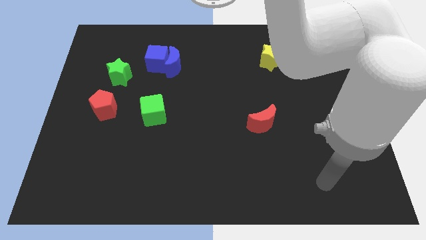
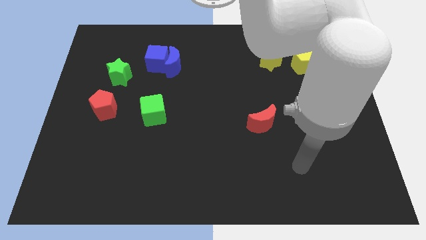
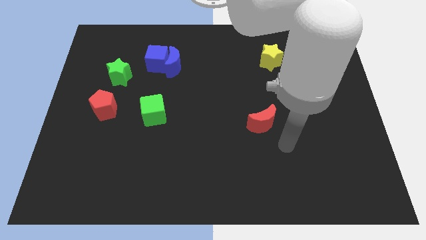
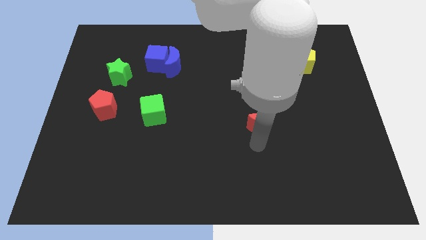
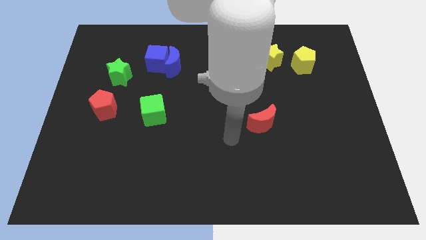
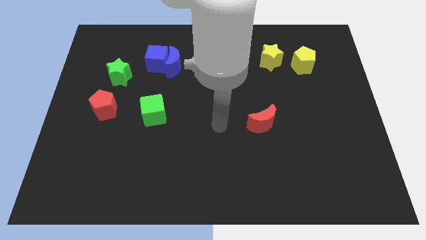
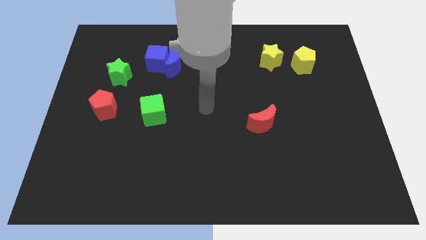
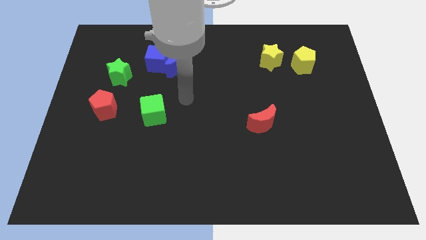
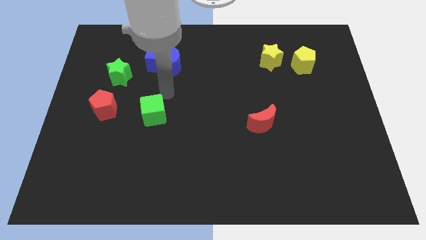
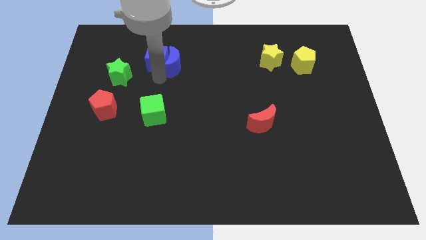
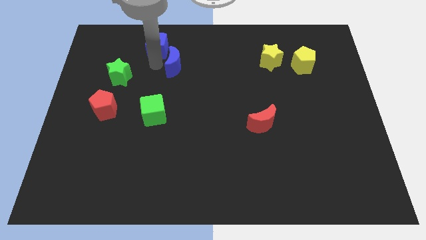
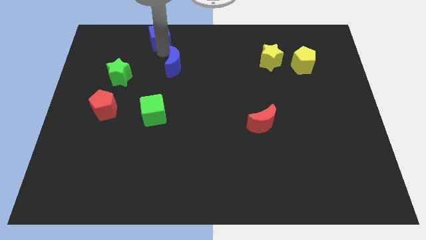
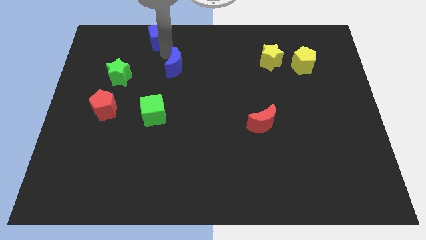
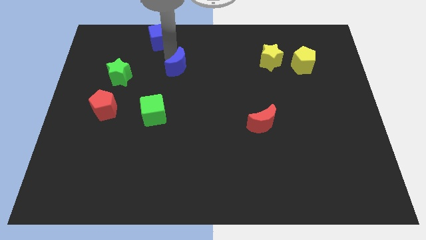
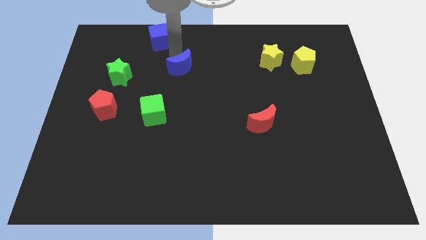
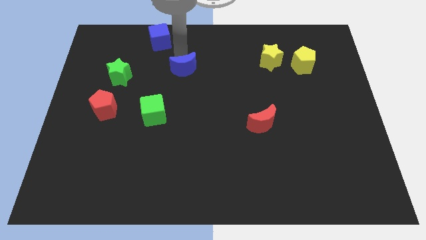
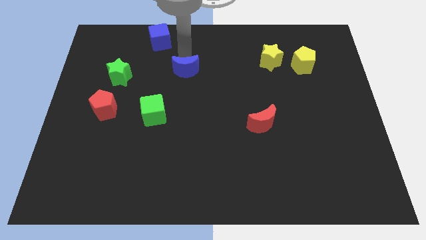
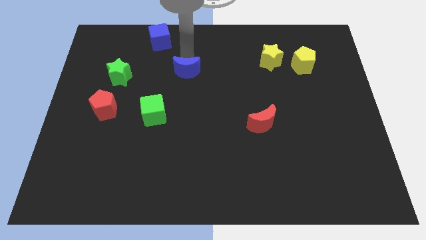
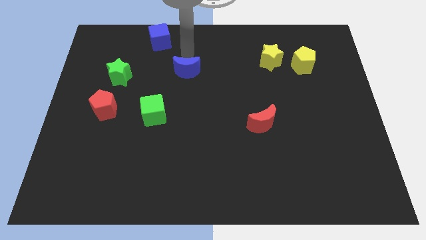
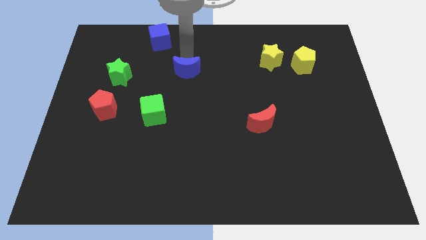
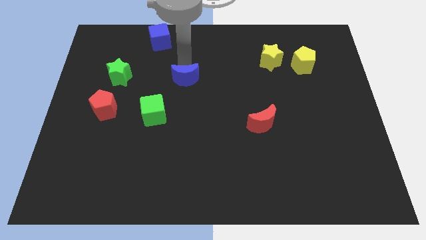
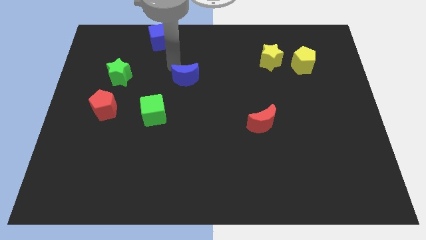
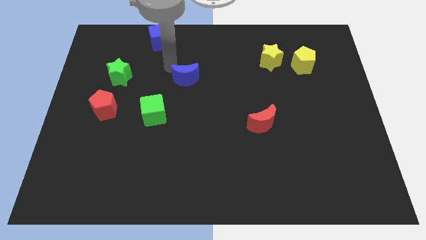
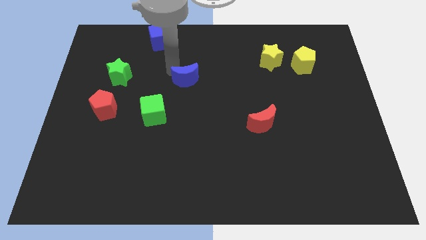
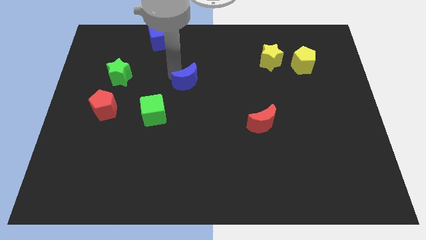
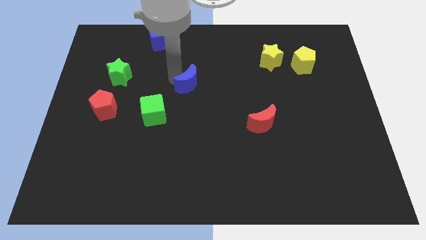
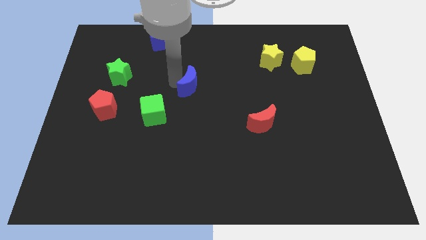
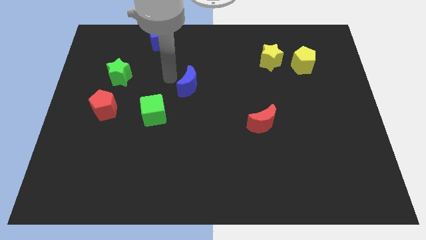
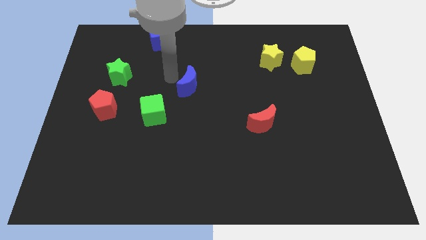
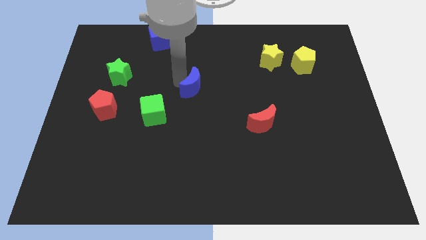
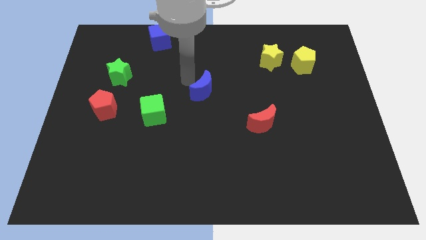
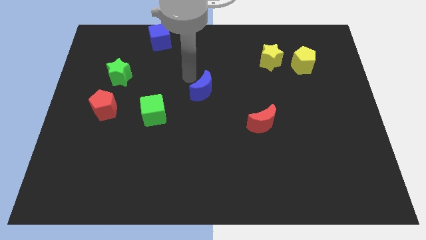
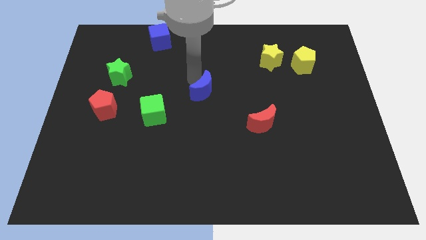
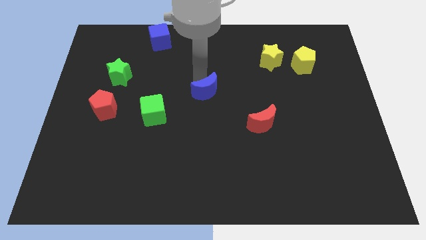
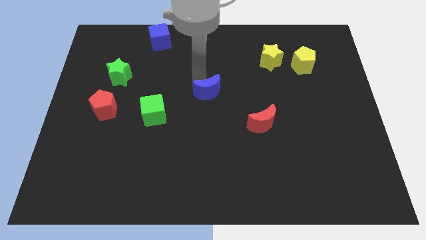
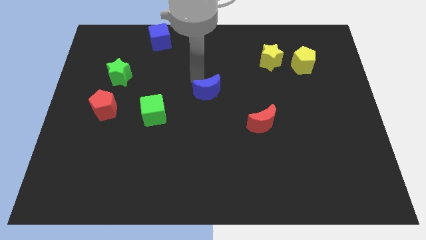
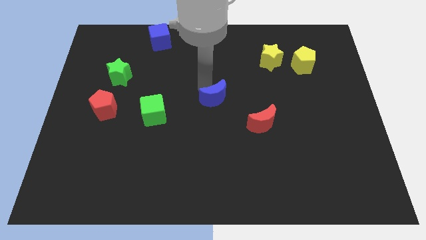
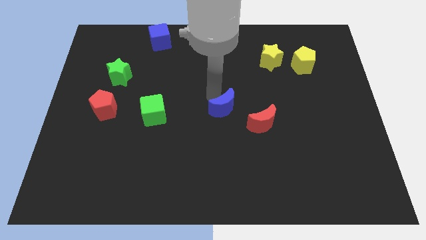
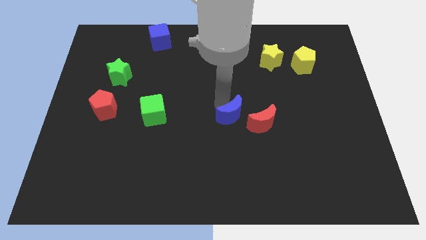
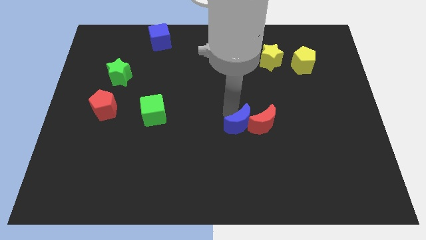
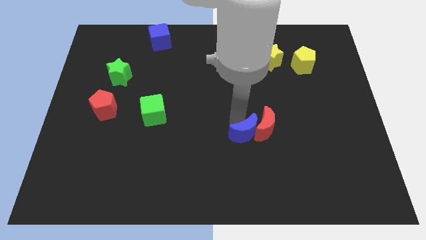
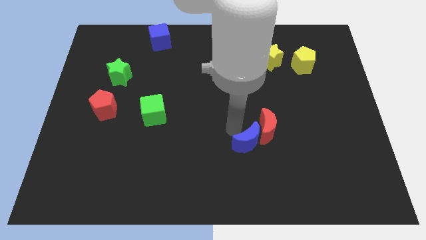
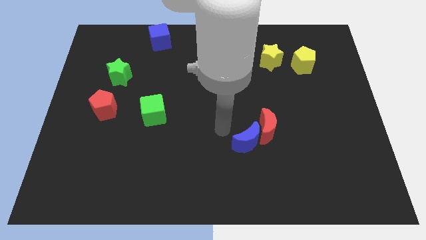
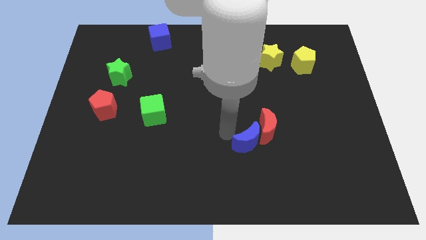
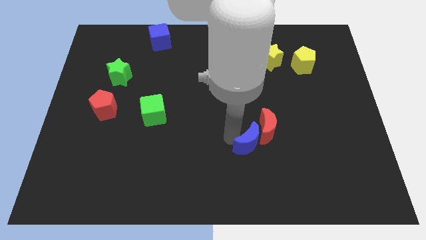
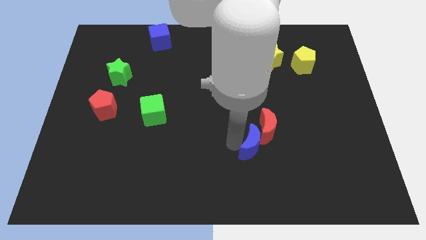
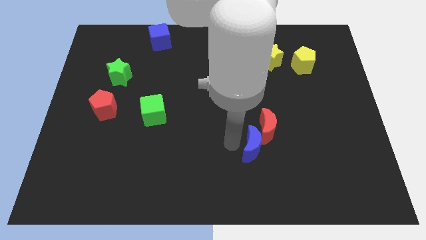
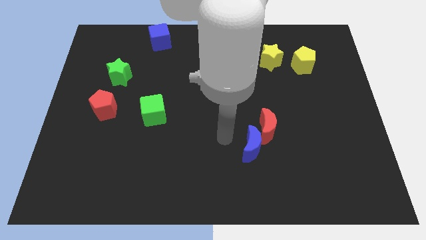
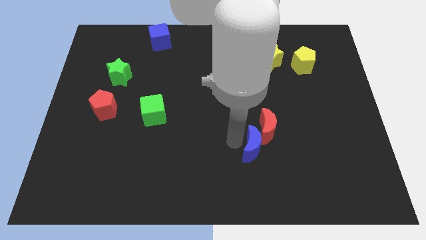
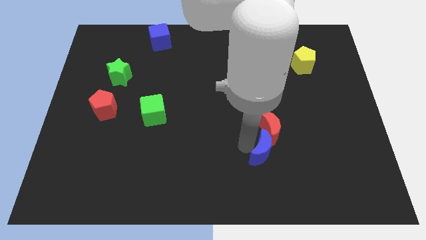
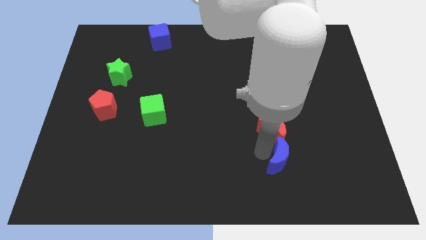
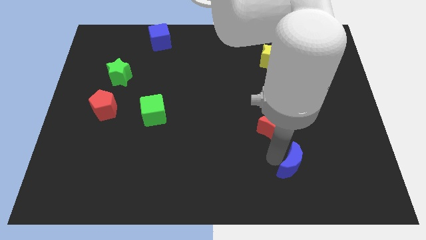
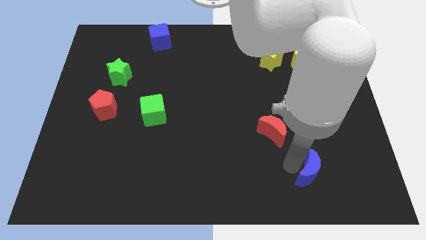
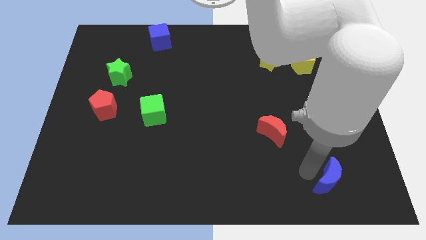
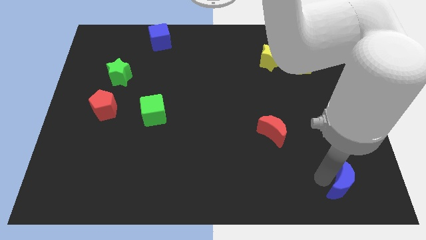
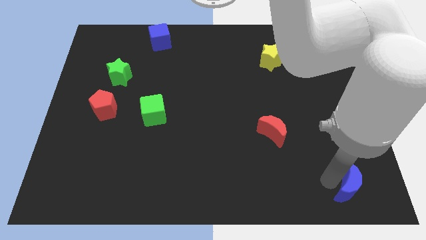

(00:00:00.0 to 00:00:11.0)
slide the blue moon to the lower right corner

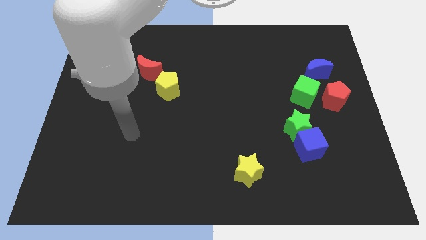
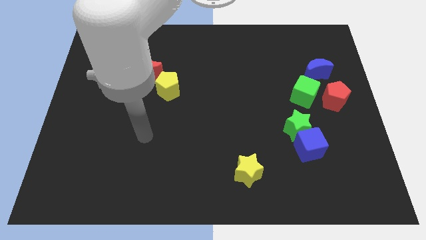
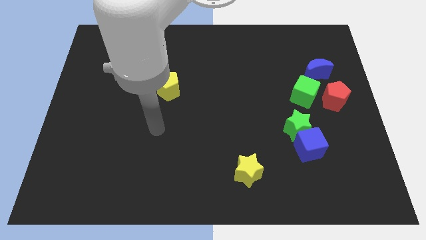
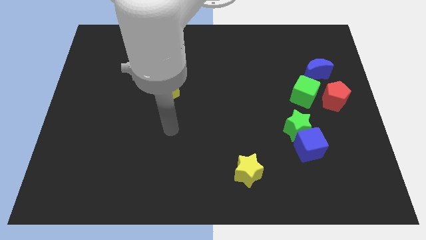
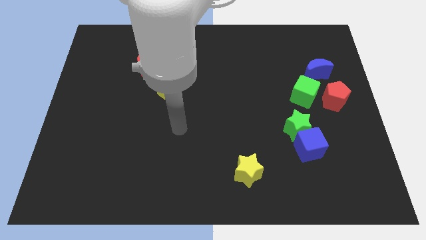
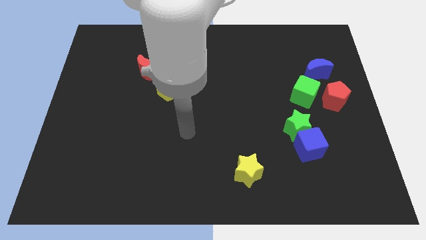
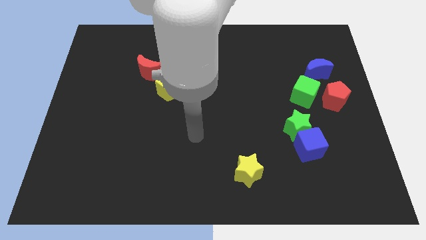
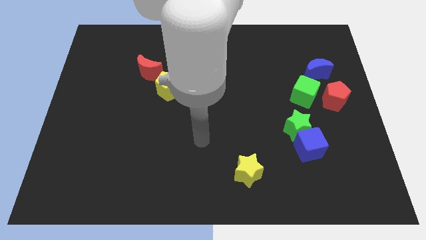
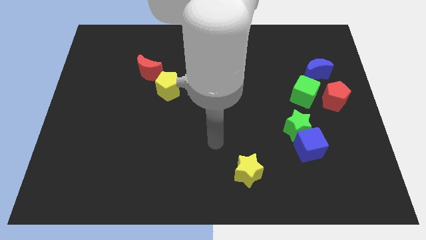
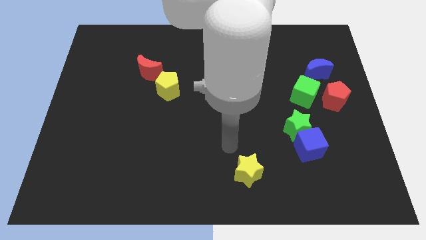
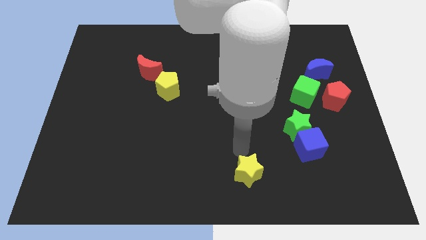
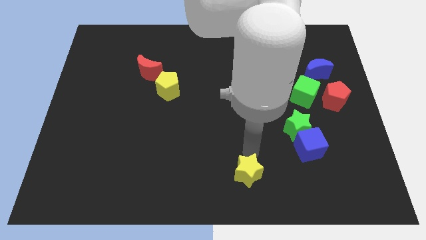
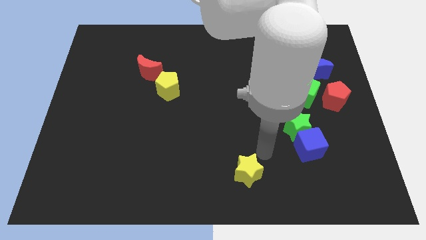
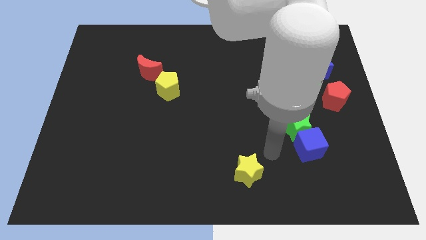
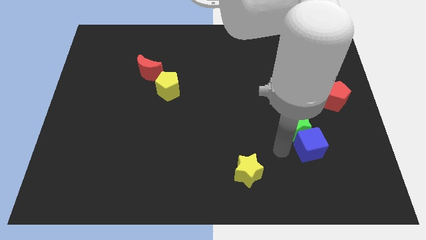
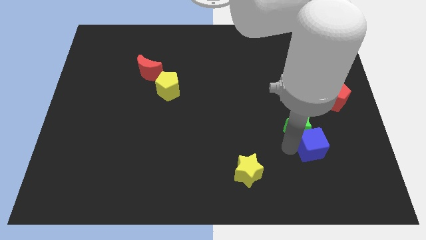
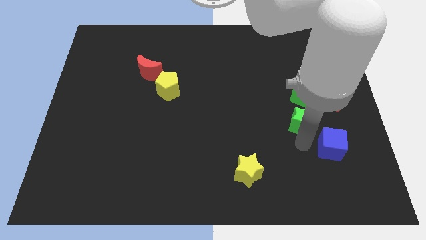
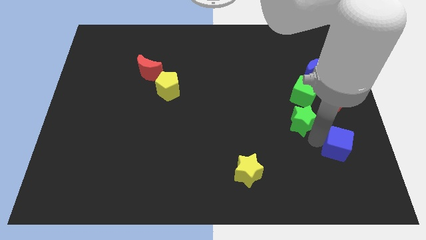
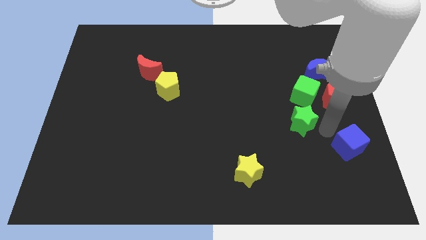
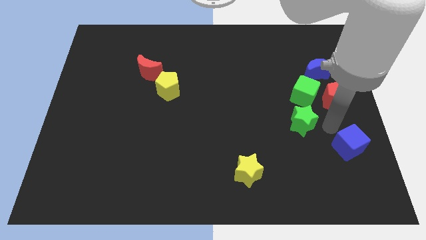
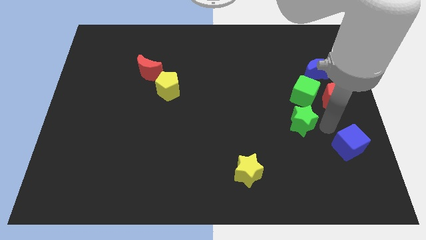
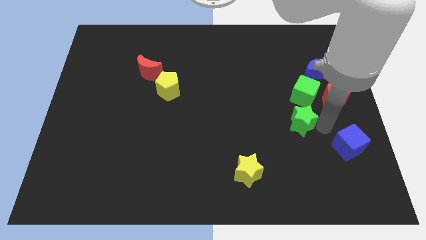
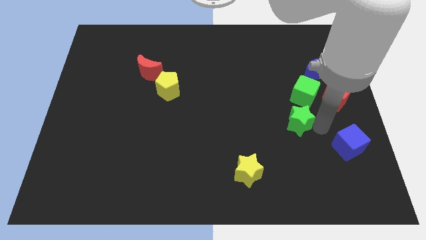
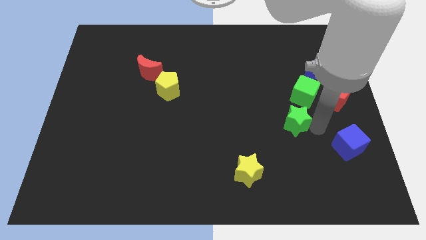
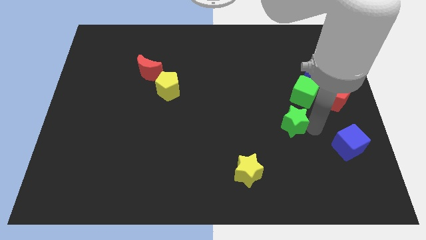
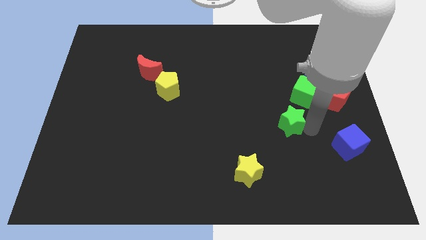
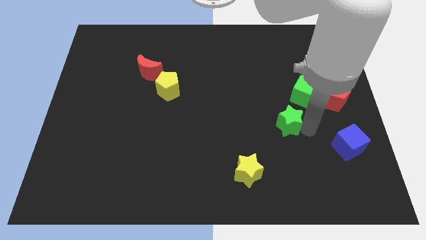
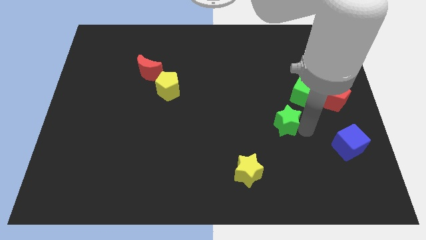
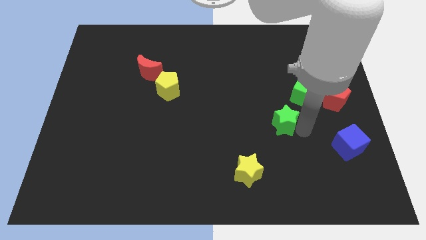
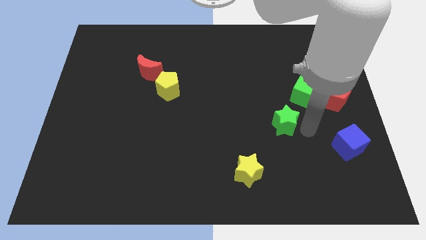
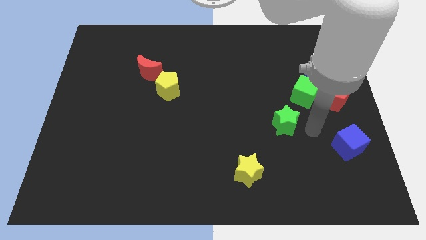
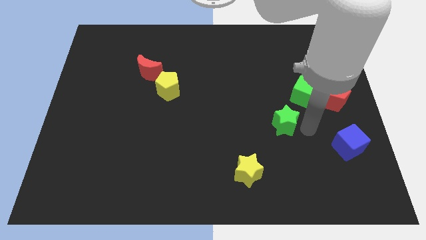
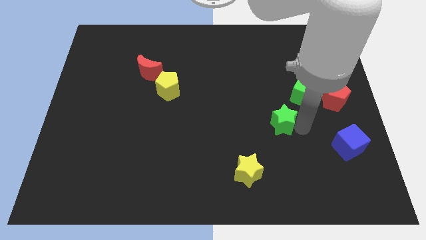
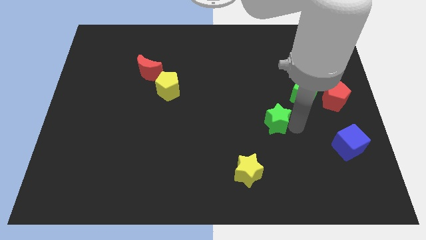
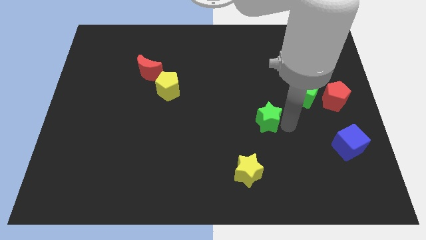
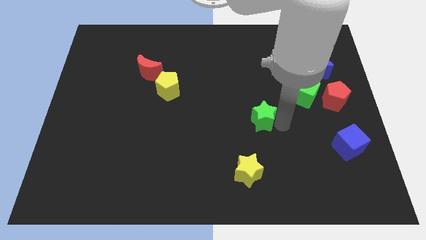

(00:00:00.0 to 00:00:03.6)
move the green star to the middle
